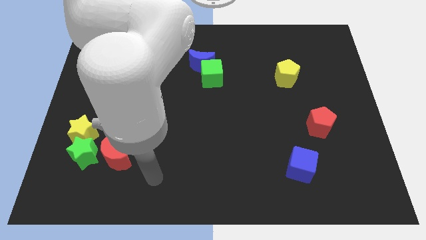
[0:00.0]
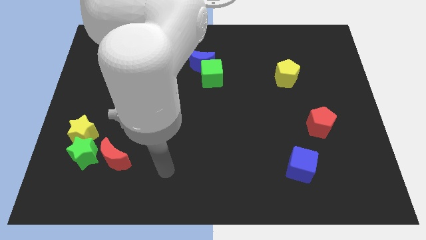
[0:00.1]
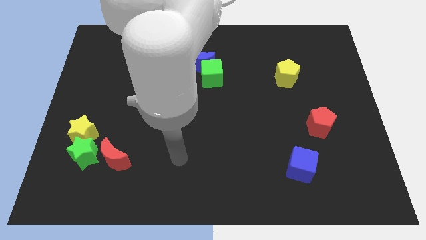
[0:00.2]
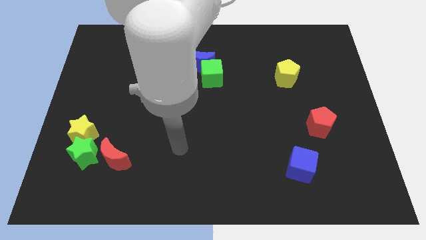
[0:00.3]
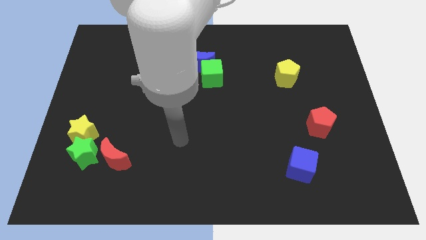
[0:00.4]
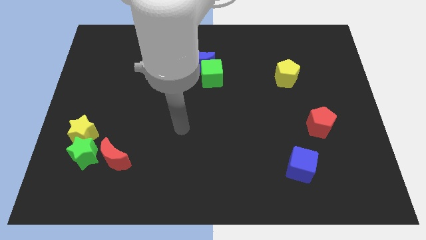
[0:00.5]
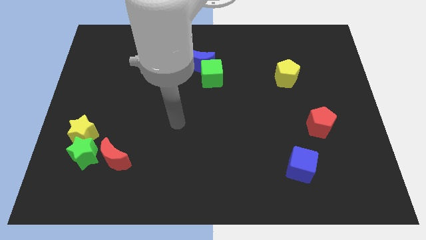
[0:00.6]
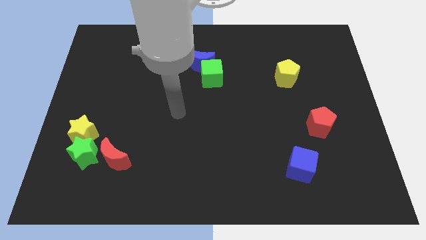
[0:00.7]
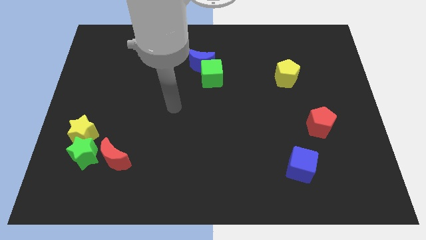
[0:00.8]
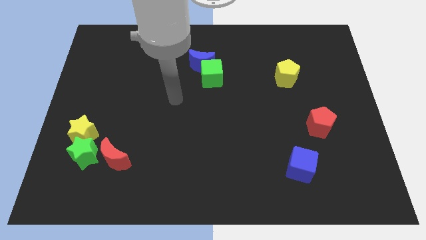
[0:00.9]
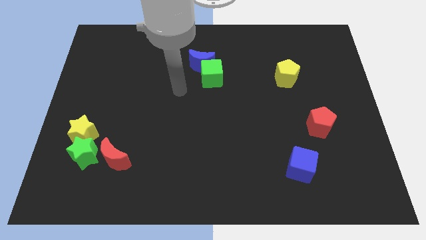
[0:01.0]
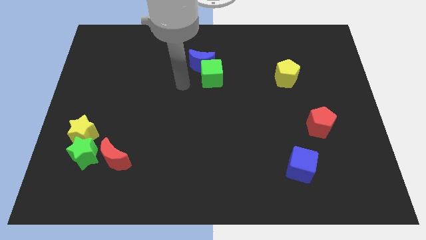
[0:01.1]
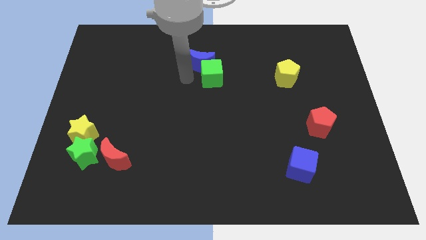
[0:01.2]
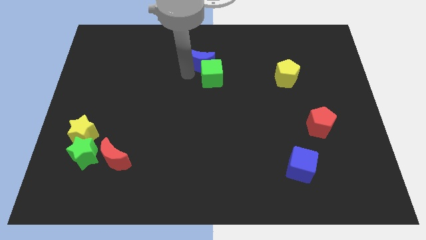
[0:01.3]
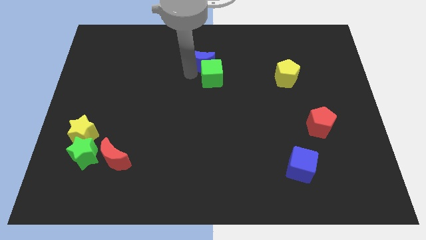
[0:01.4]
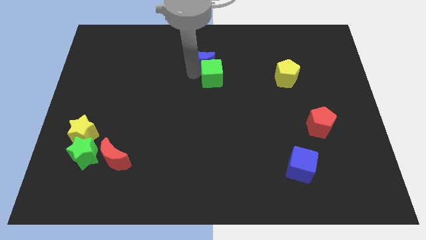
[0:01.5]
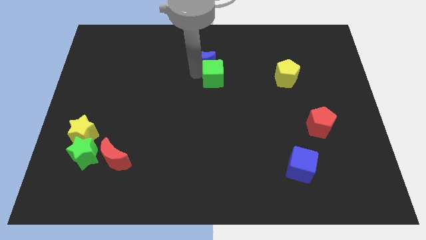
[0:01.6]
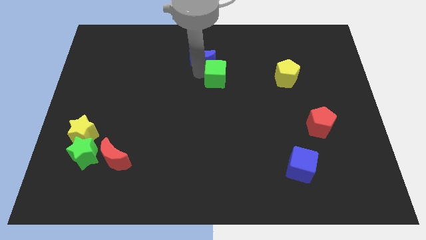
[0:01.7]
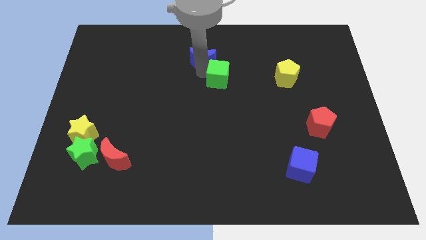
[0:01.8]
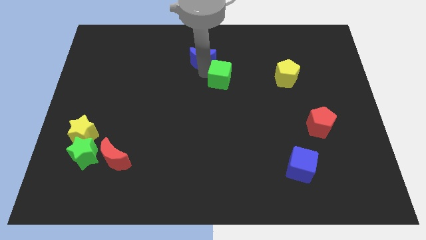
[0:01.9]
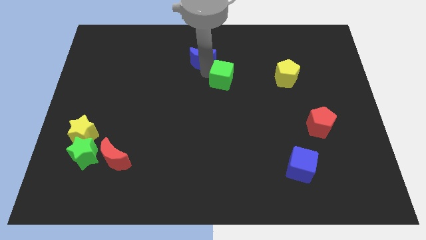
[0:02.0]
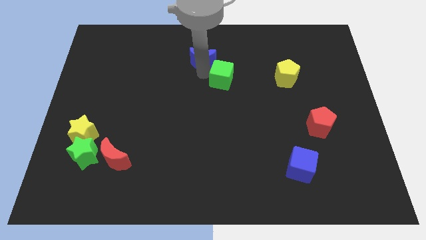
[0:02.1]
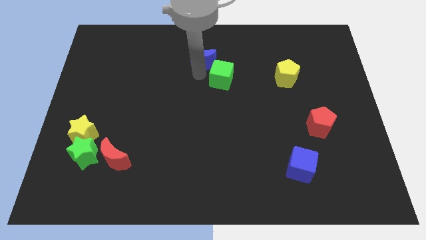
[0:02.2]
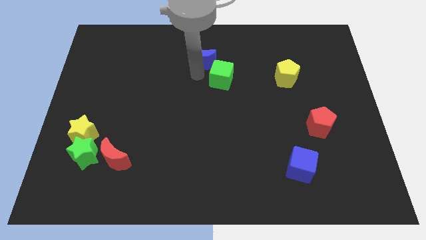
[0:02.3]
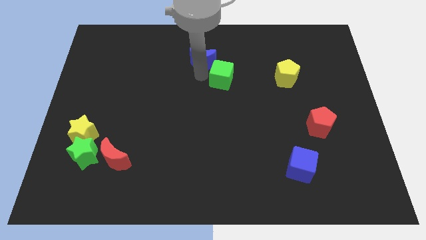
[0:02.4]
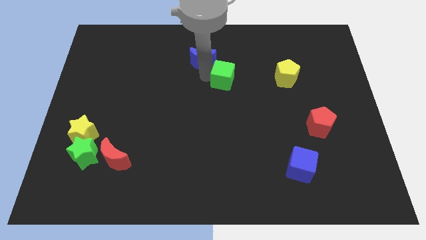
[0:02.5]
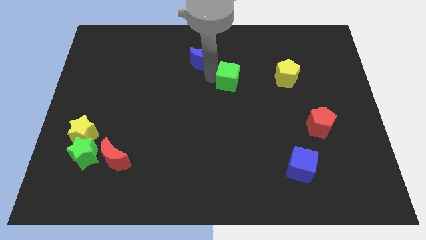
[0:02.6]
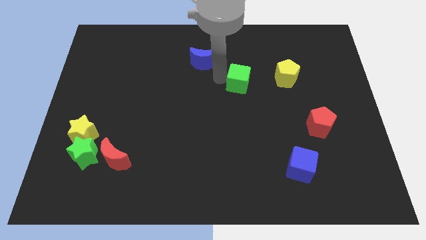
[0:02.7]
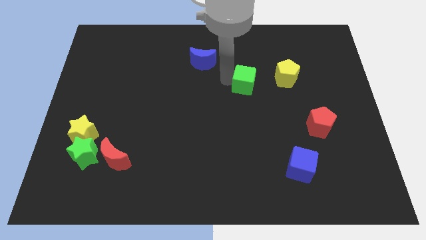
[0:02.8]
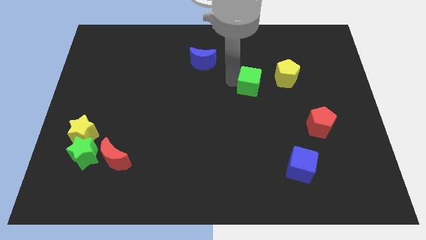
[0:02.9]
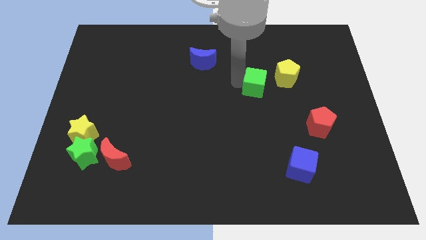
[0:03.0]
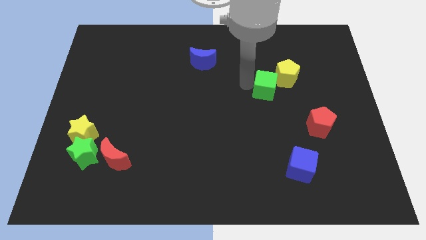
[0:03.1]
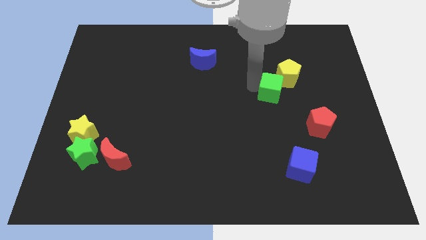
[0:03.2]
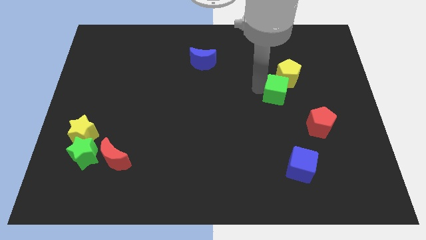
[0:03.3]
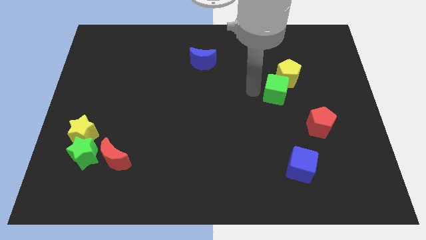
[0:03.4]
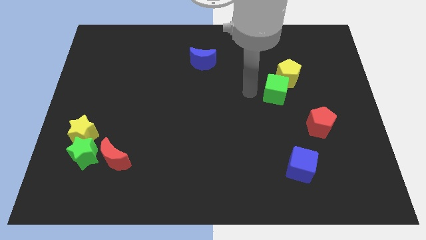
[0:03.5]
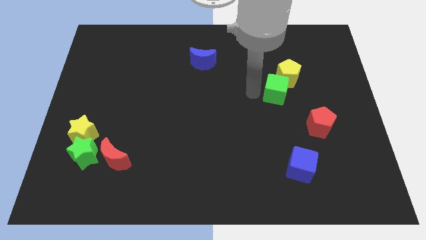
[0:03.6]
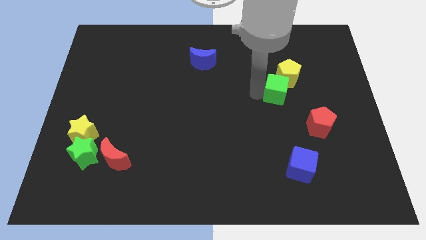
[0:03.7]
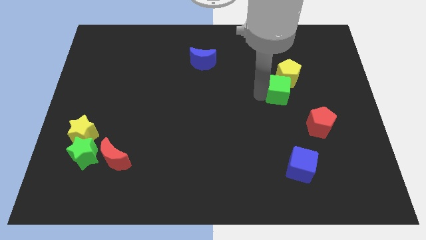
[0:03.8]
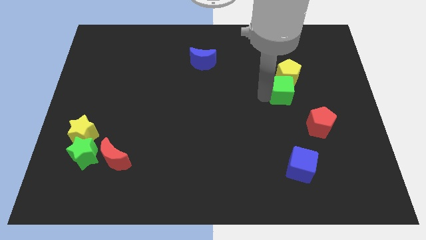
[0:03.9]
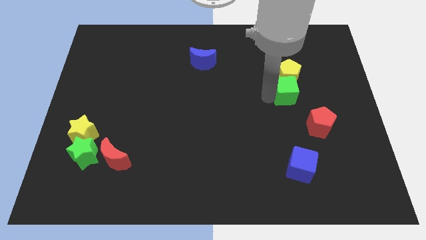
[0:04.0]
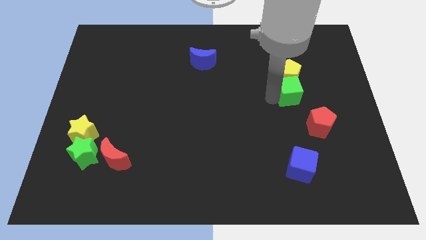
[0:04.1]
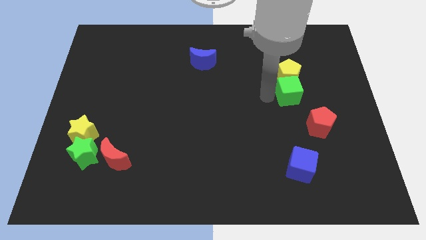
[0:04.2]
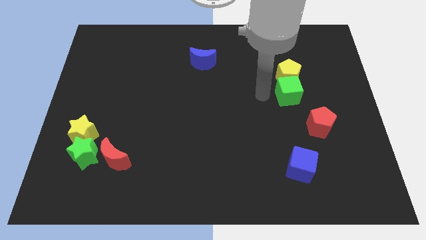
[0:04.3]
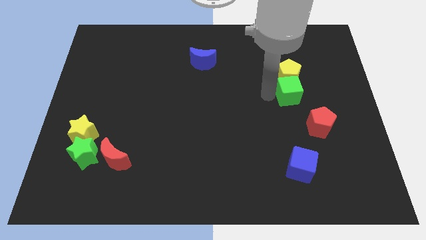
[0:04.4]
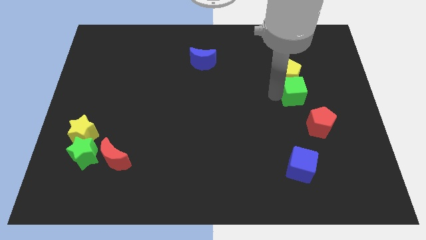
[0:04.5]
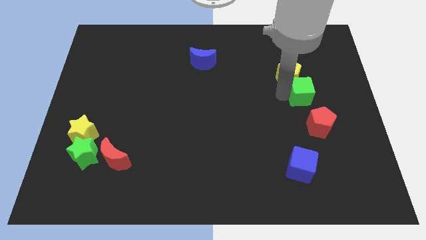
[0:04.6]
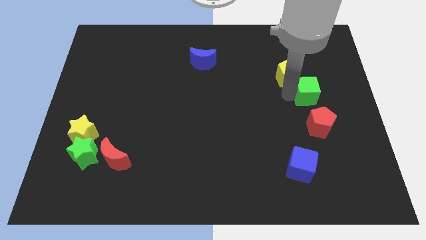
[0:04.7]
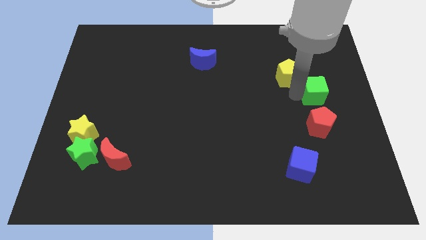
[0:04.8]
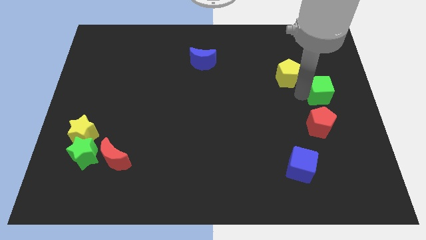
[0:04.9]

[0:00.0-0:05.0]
slide the green cube to the center right

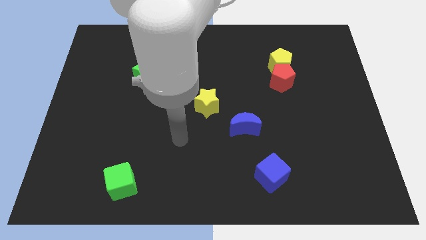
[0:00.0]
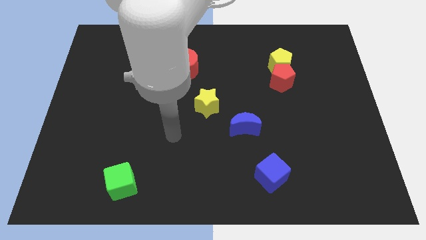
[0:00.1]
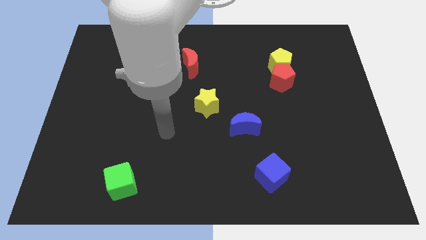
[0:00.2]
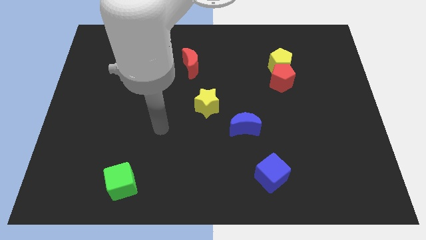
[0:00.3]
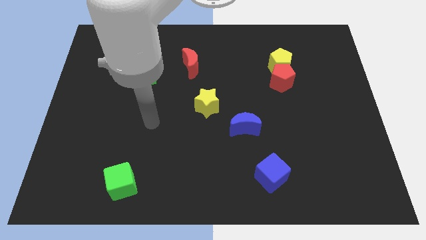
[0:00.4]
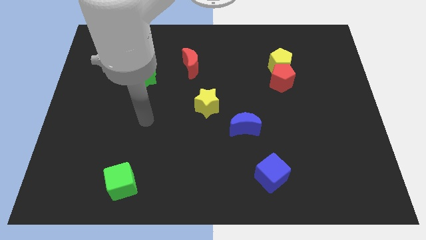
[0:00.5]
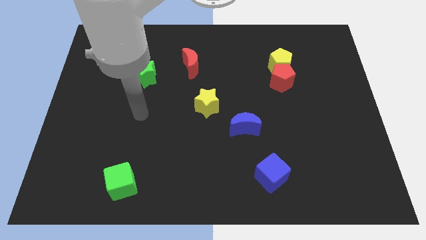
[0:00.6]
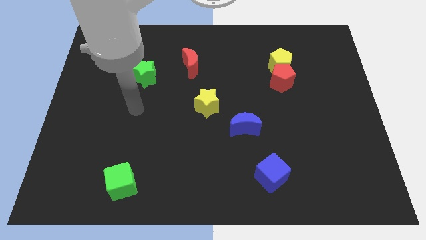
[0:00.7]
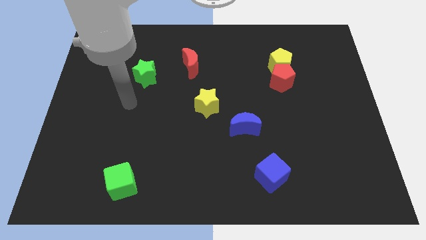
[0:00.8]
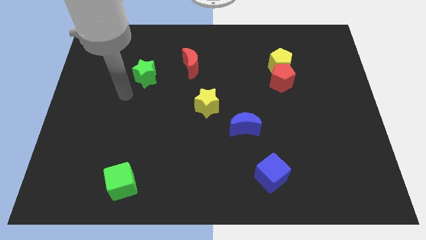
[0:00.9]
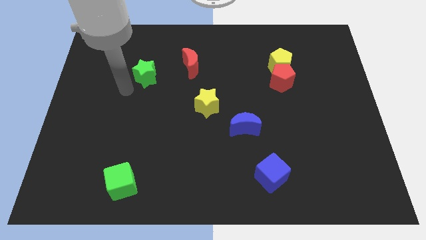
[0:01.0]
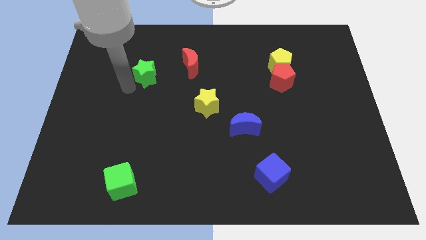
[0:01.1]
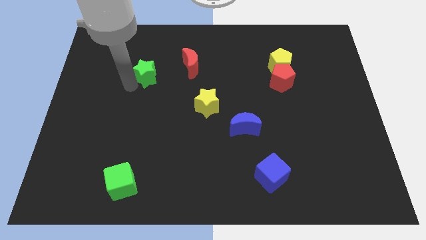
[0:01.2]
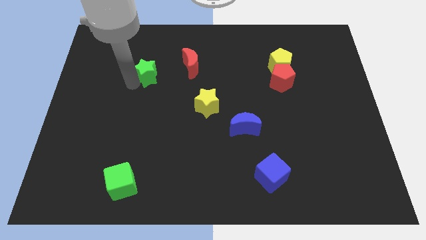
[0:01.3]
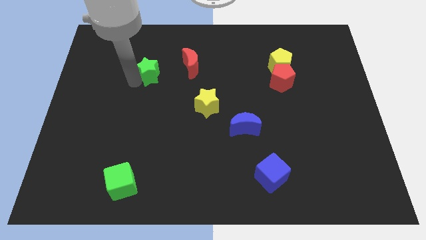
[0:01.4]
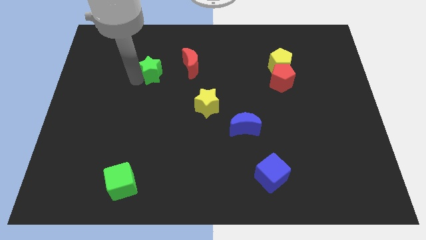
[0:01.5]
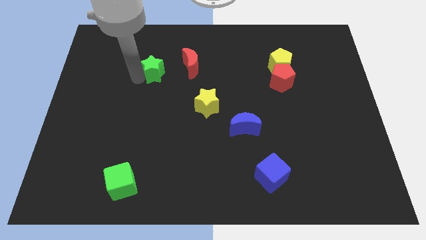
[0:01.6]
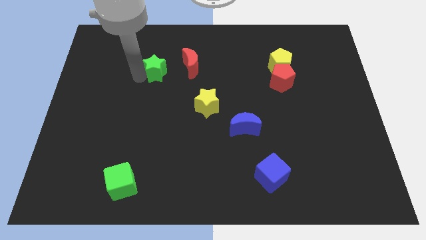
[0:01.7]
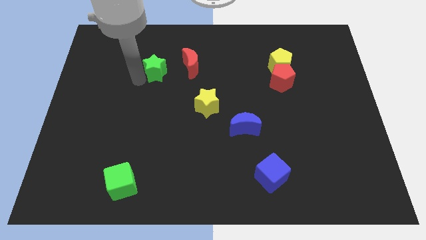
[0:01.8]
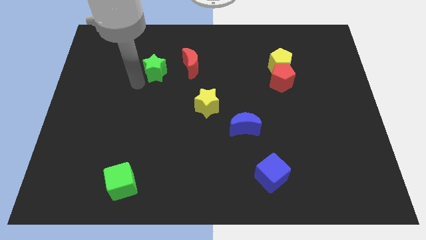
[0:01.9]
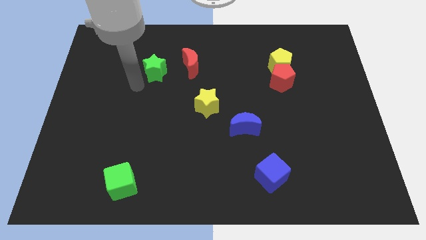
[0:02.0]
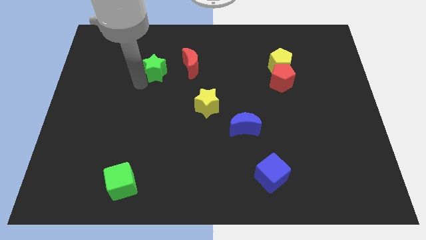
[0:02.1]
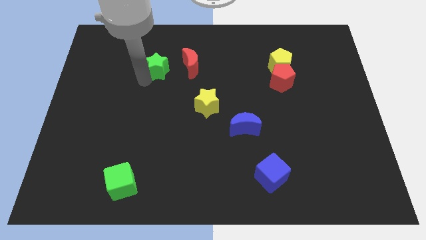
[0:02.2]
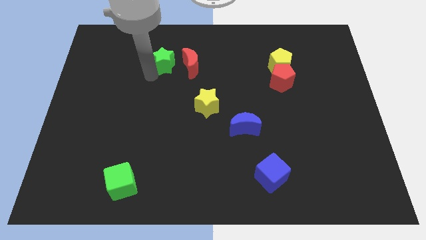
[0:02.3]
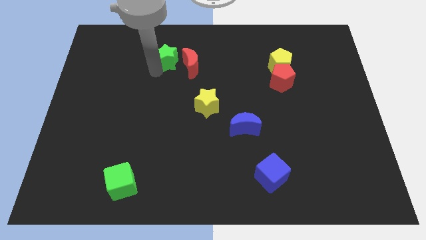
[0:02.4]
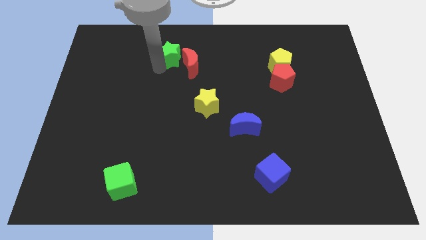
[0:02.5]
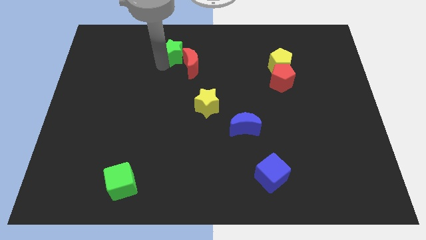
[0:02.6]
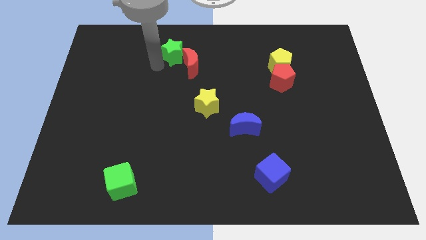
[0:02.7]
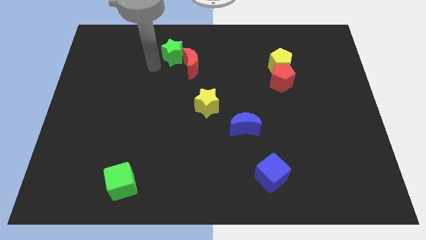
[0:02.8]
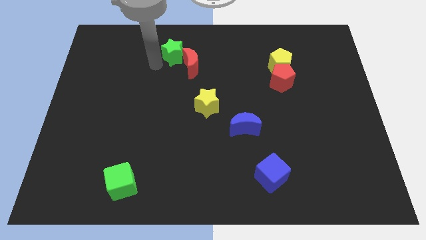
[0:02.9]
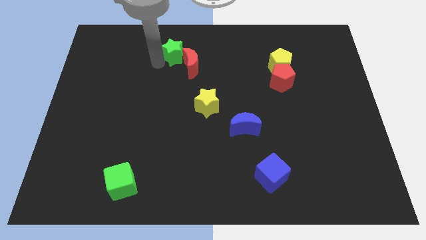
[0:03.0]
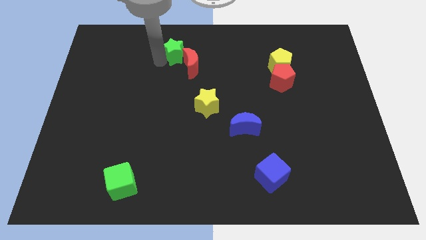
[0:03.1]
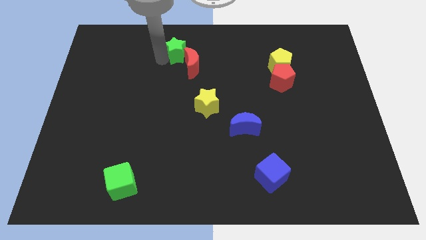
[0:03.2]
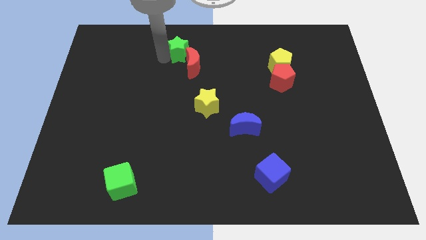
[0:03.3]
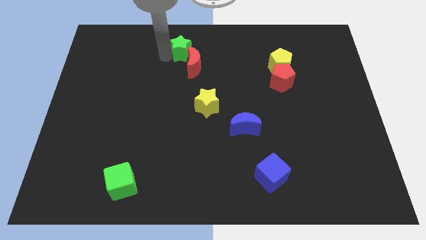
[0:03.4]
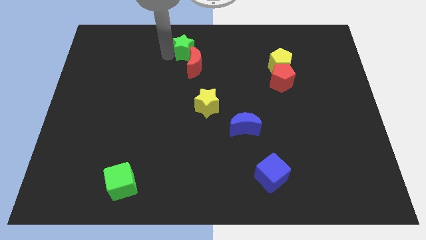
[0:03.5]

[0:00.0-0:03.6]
move the green star to the top
